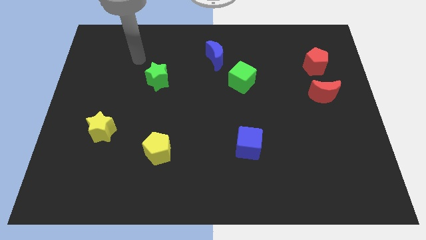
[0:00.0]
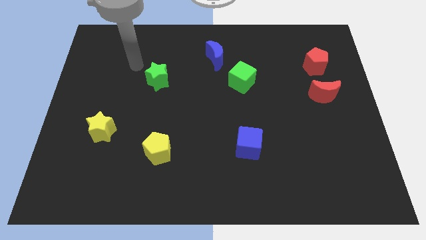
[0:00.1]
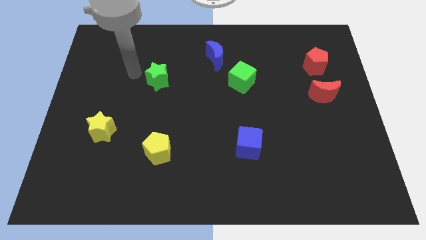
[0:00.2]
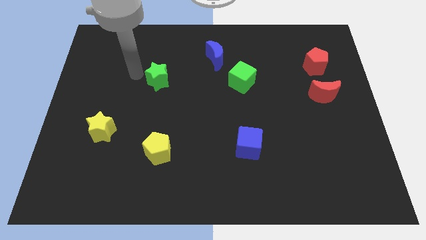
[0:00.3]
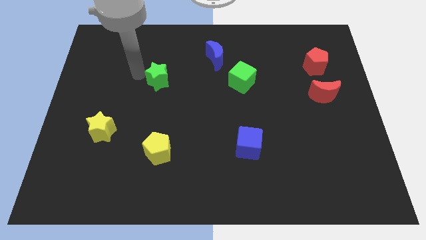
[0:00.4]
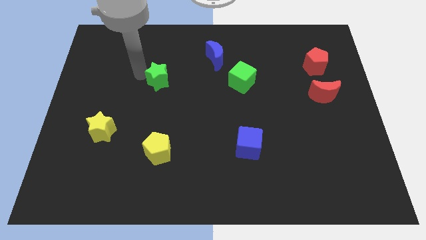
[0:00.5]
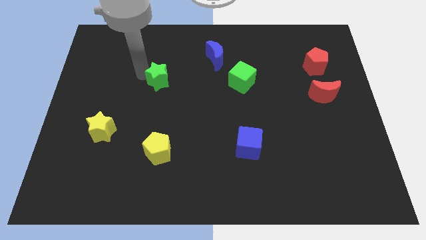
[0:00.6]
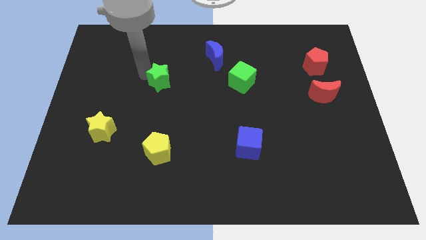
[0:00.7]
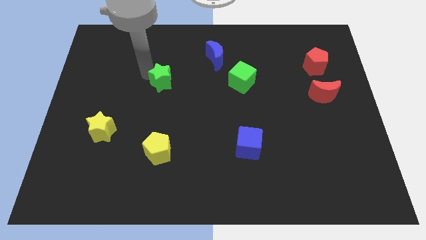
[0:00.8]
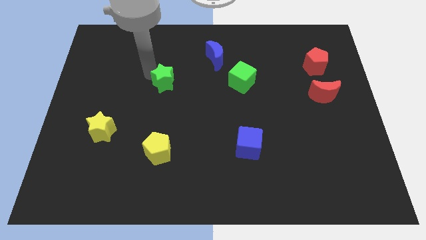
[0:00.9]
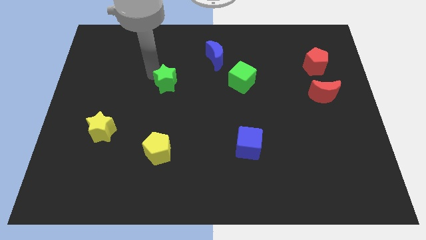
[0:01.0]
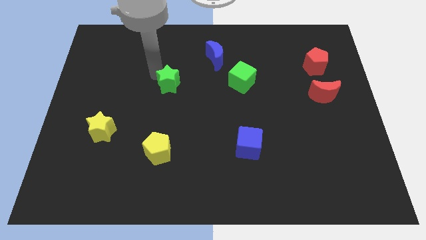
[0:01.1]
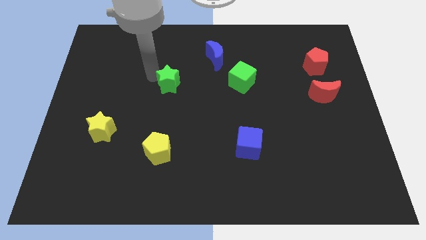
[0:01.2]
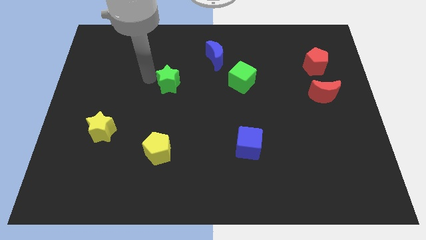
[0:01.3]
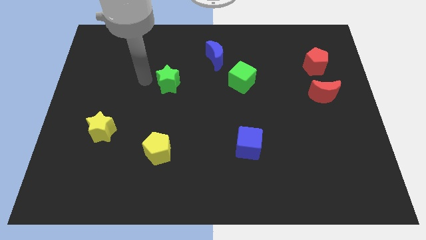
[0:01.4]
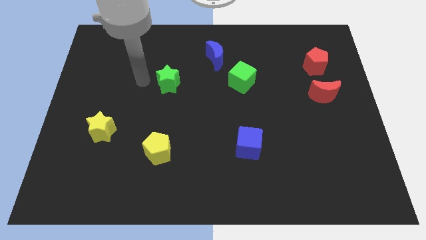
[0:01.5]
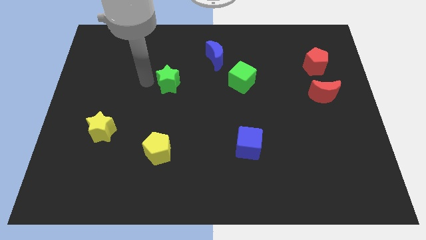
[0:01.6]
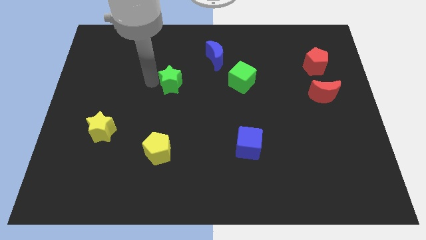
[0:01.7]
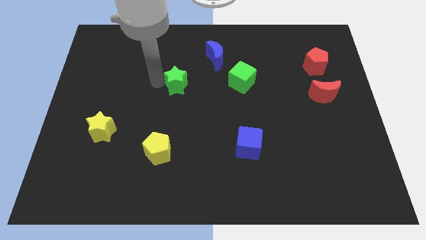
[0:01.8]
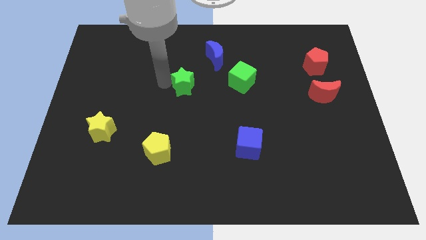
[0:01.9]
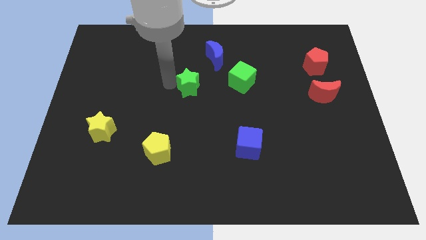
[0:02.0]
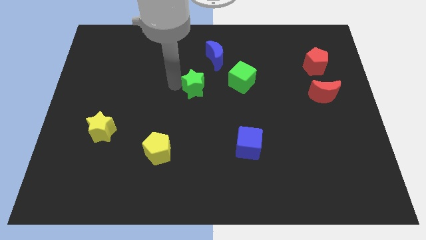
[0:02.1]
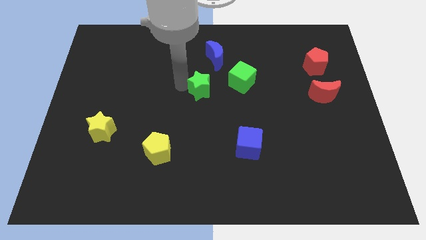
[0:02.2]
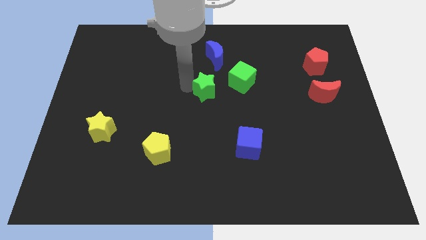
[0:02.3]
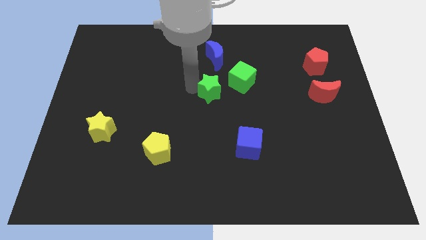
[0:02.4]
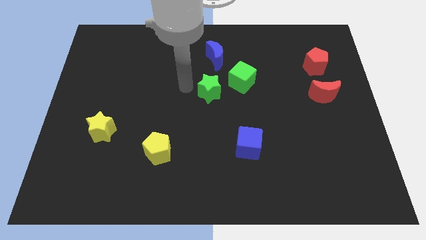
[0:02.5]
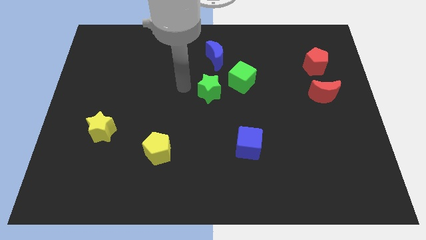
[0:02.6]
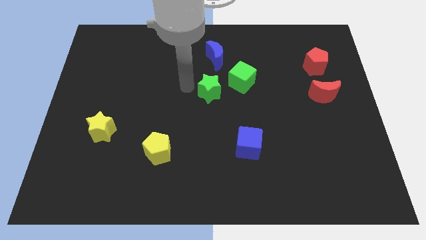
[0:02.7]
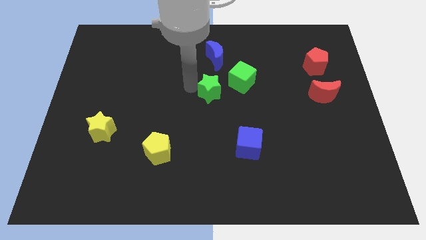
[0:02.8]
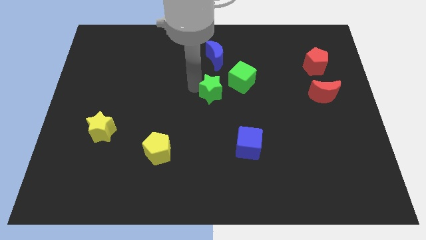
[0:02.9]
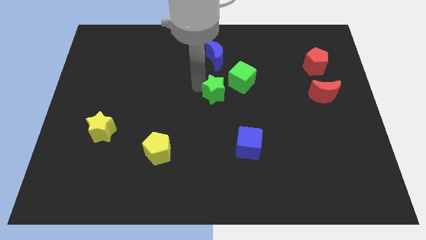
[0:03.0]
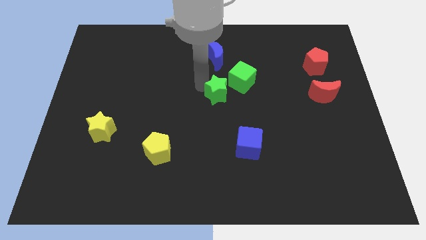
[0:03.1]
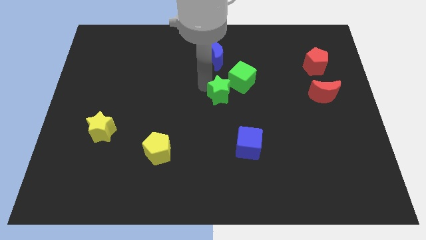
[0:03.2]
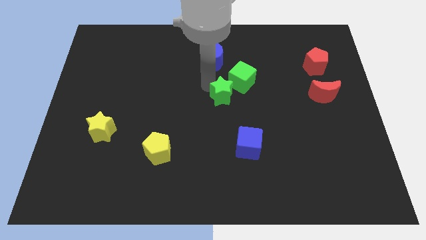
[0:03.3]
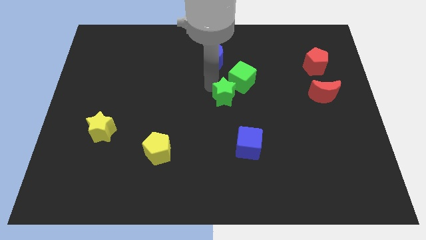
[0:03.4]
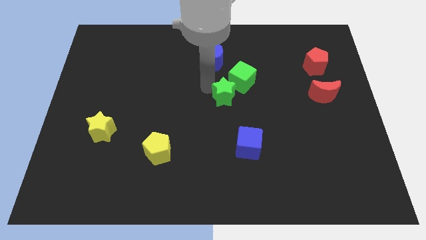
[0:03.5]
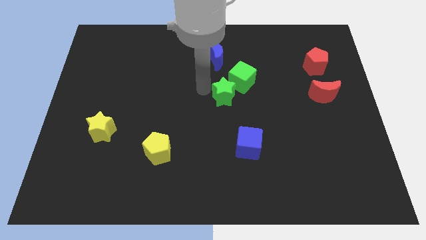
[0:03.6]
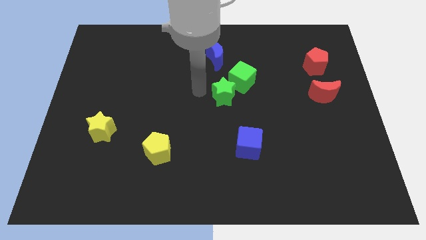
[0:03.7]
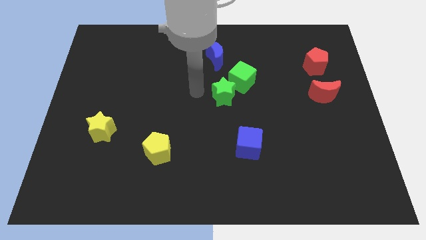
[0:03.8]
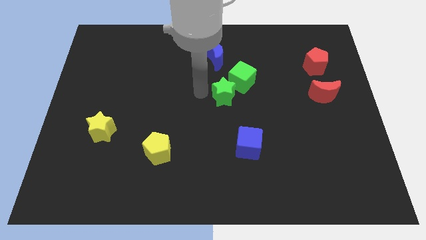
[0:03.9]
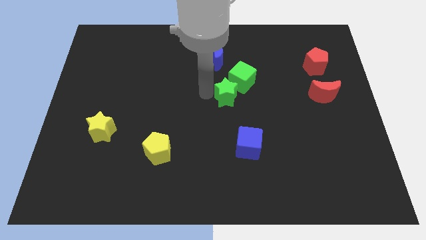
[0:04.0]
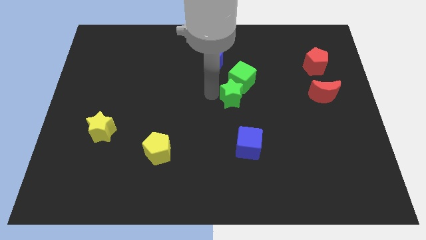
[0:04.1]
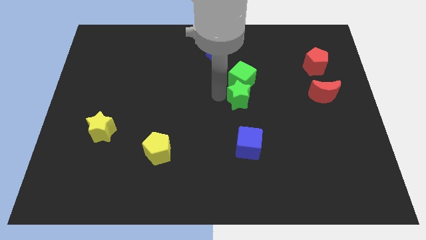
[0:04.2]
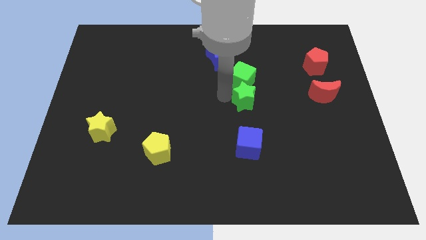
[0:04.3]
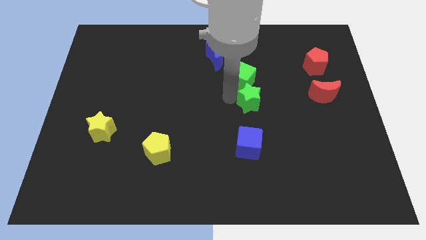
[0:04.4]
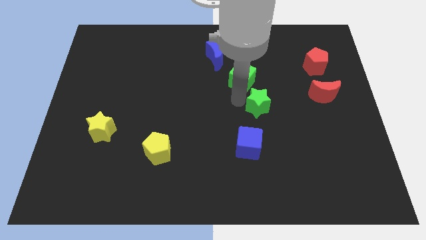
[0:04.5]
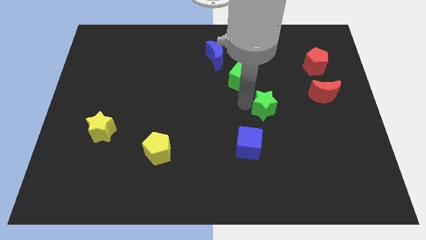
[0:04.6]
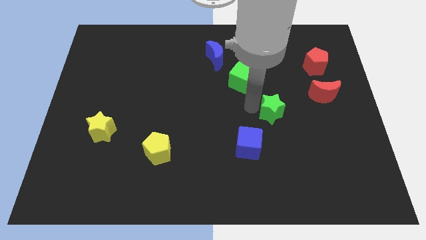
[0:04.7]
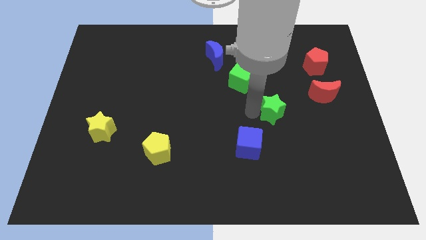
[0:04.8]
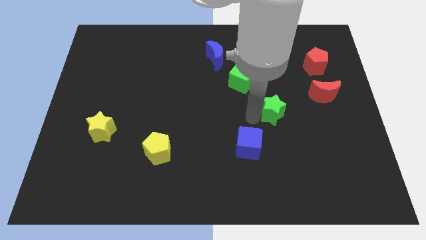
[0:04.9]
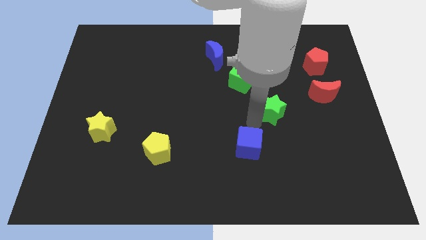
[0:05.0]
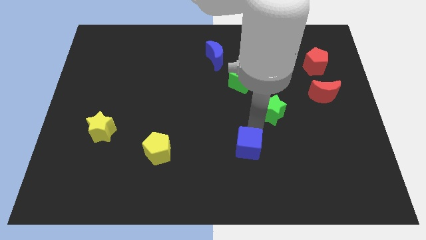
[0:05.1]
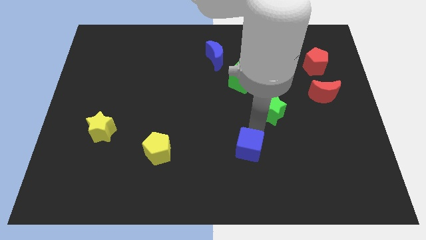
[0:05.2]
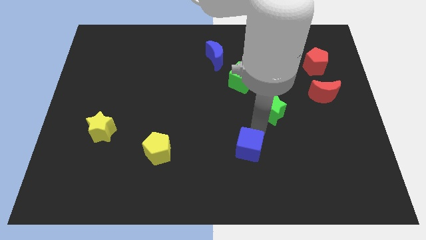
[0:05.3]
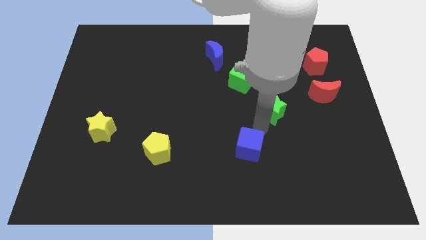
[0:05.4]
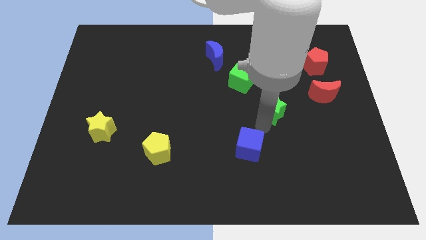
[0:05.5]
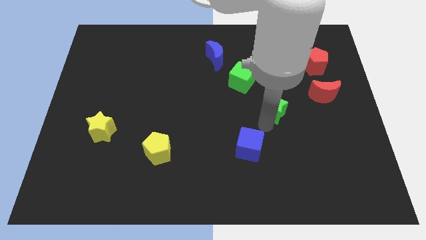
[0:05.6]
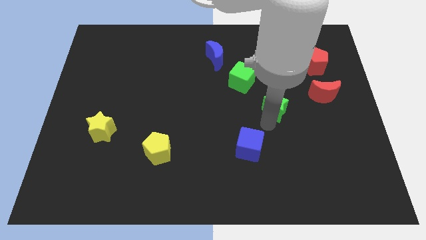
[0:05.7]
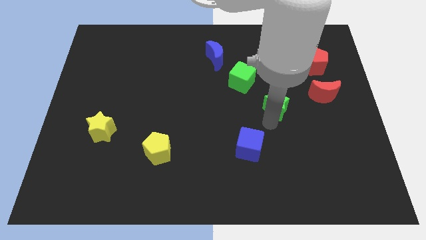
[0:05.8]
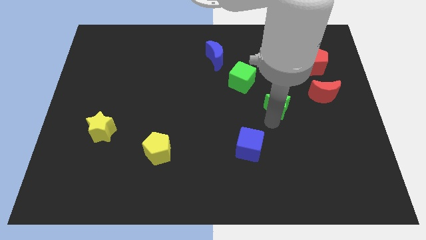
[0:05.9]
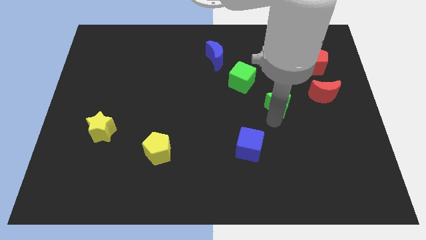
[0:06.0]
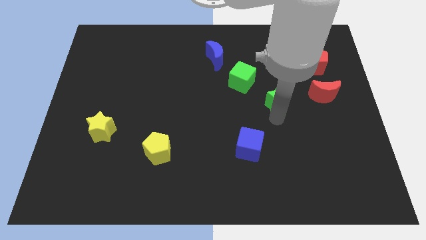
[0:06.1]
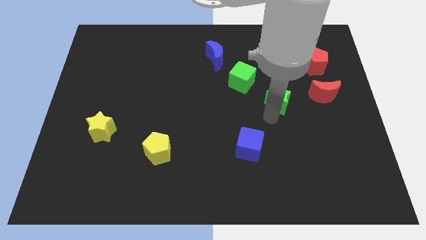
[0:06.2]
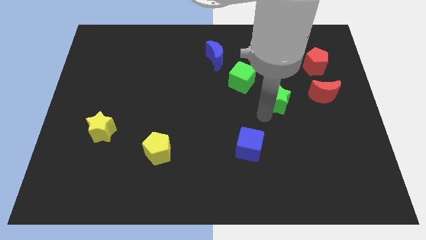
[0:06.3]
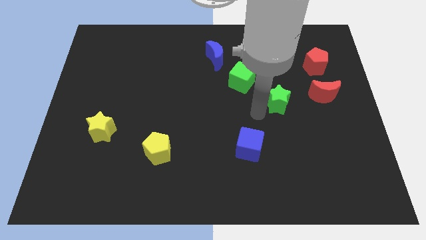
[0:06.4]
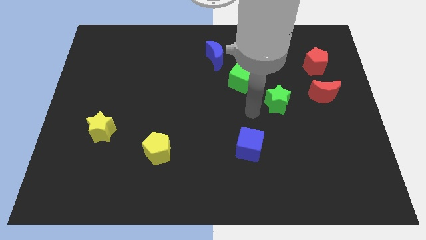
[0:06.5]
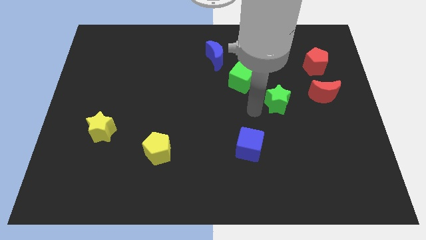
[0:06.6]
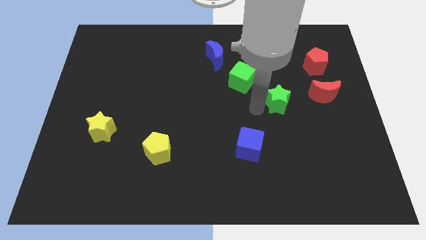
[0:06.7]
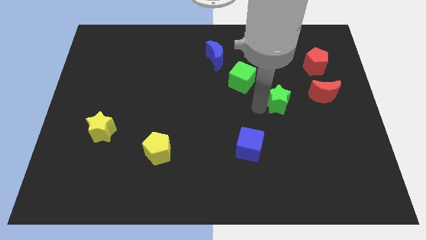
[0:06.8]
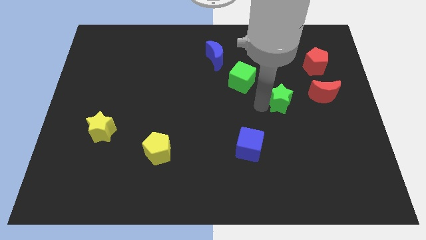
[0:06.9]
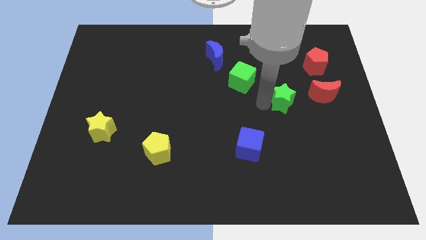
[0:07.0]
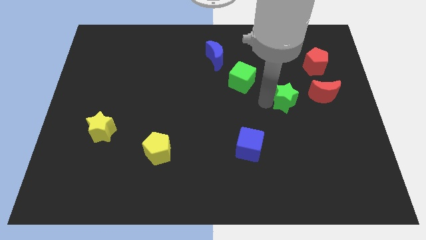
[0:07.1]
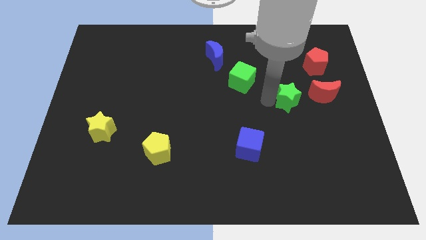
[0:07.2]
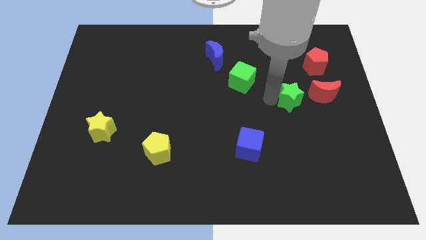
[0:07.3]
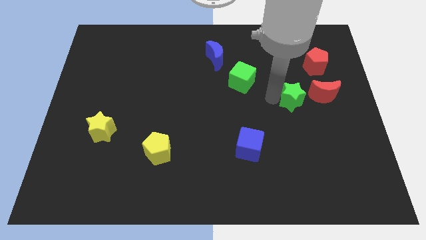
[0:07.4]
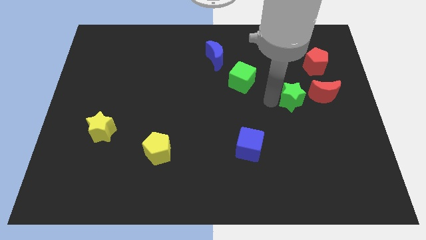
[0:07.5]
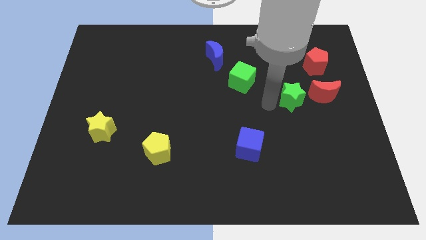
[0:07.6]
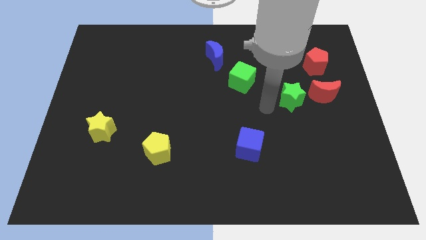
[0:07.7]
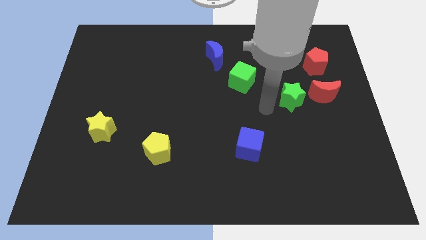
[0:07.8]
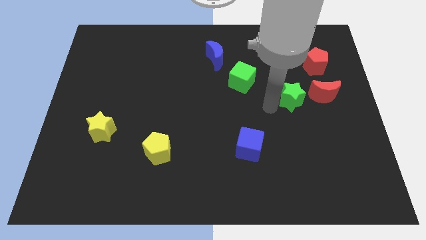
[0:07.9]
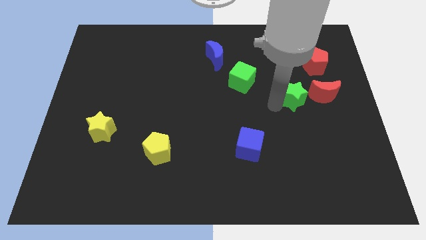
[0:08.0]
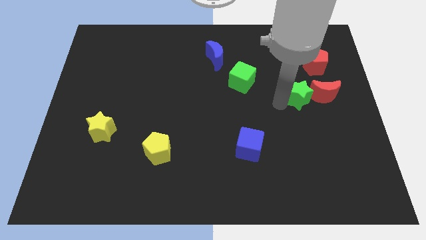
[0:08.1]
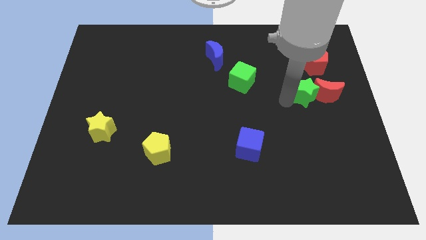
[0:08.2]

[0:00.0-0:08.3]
put the green star to the red moon
